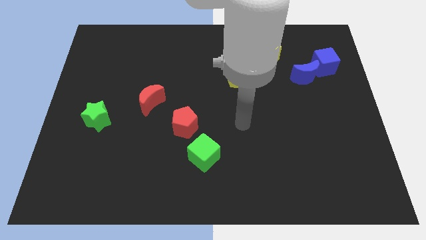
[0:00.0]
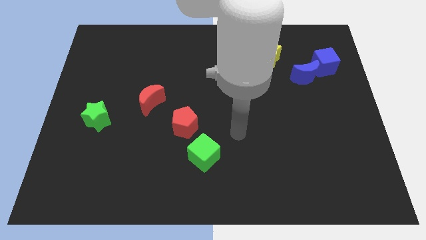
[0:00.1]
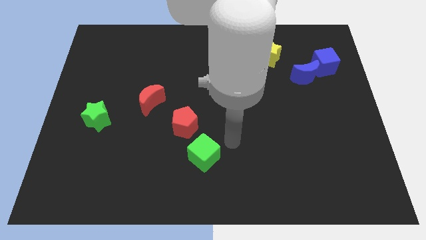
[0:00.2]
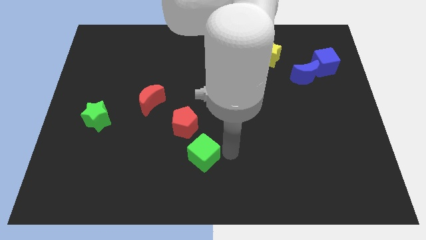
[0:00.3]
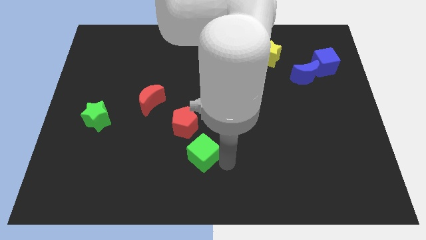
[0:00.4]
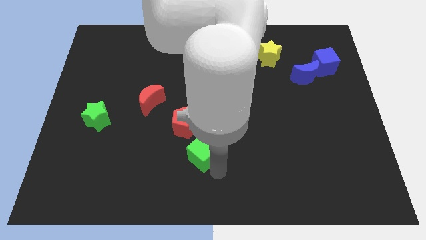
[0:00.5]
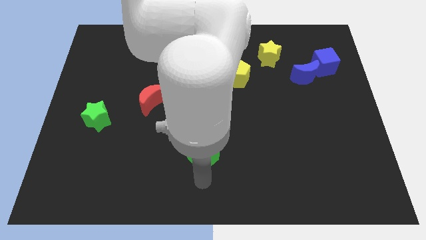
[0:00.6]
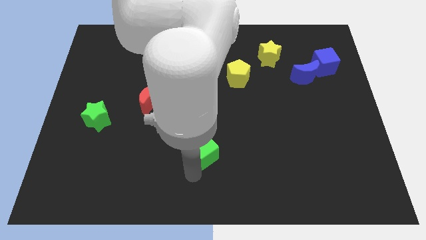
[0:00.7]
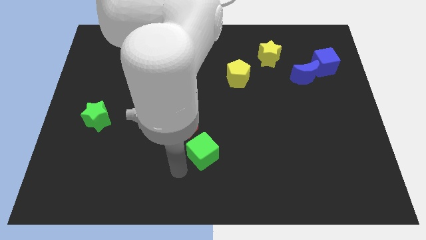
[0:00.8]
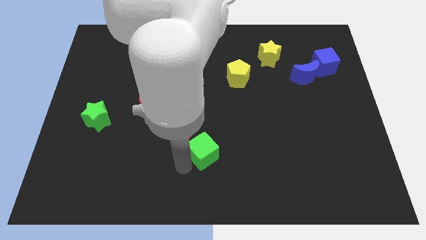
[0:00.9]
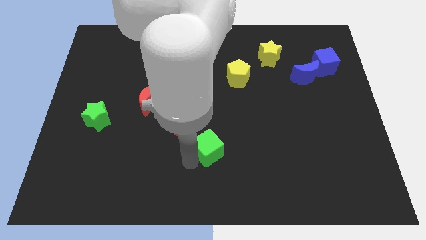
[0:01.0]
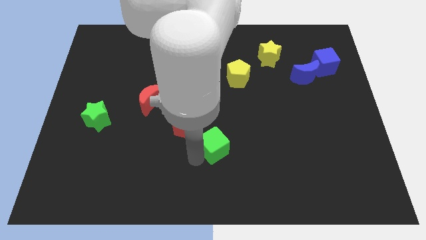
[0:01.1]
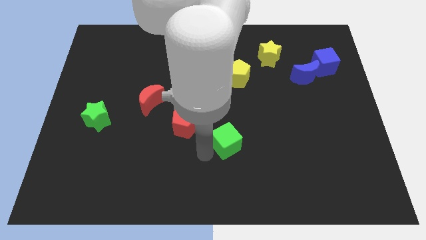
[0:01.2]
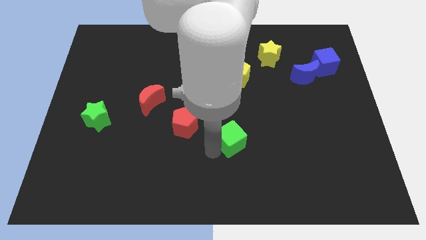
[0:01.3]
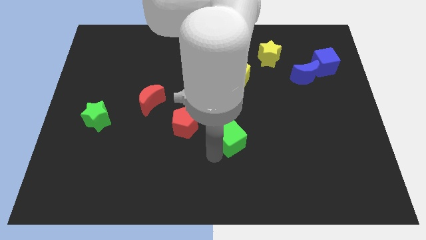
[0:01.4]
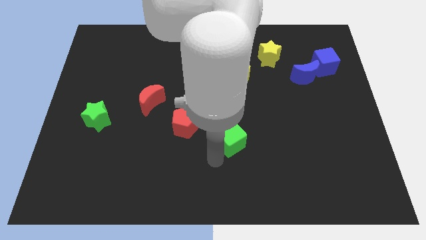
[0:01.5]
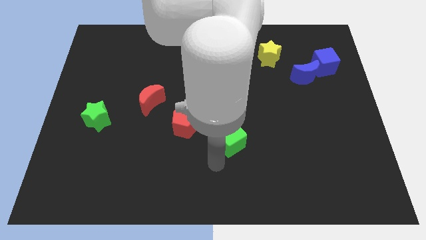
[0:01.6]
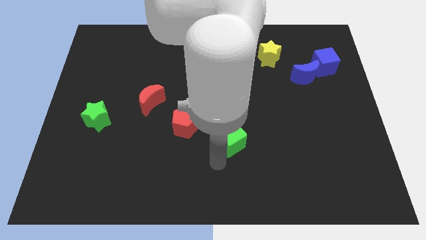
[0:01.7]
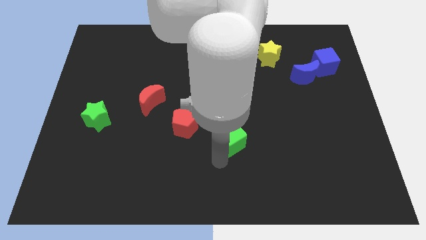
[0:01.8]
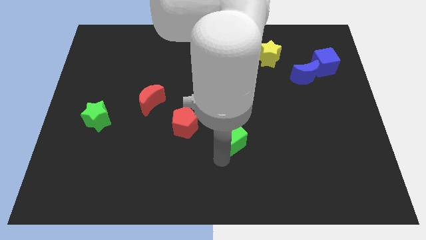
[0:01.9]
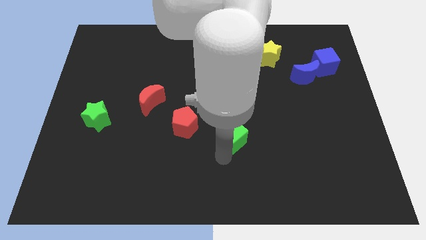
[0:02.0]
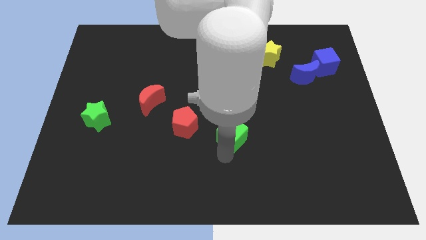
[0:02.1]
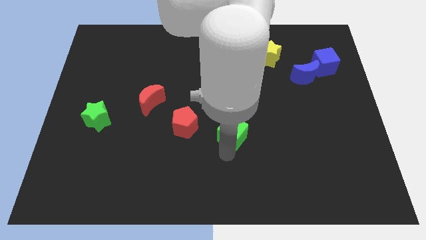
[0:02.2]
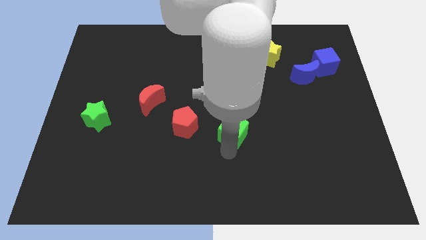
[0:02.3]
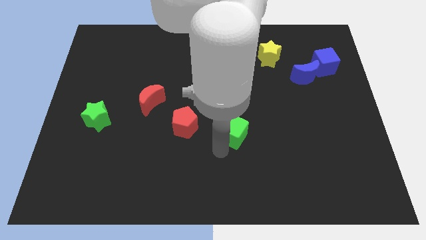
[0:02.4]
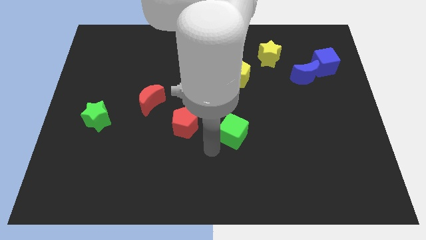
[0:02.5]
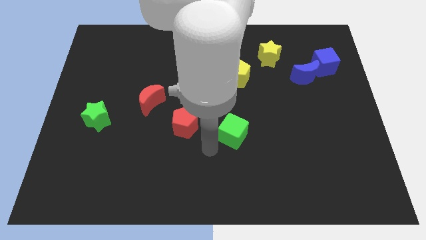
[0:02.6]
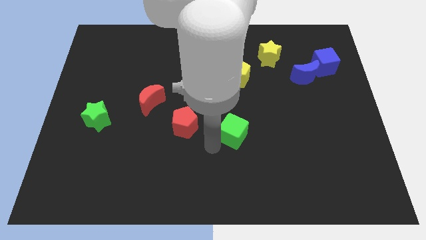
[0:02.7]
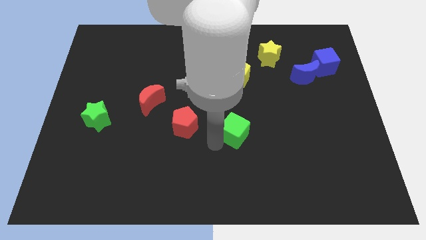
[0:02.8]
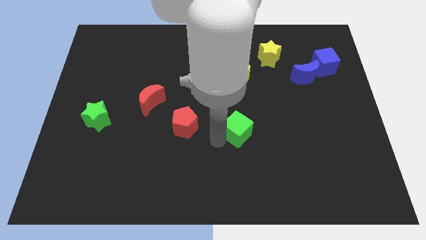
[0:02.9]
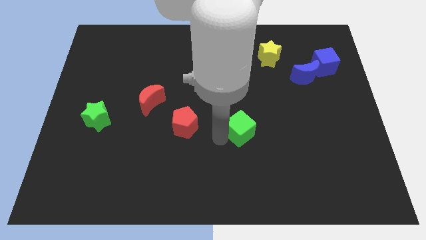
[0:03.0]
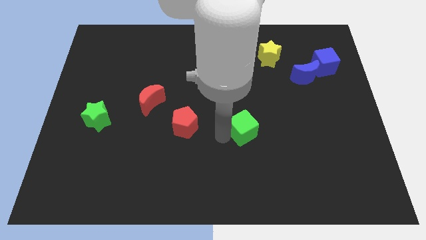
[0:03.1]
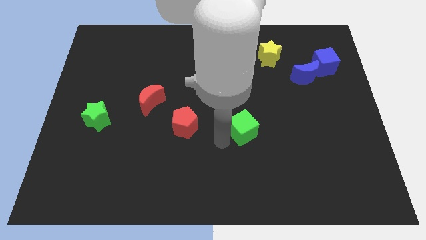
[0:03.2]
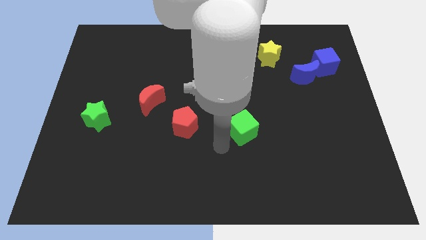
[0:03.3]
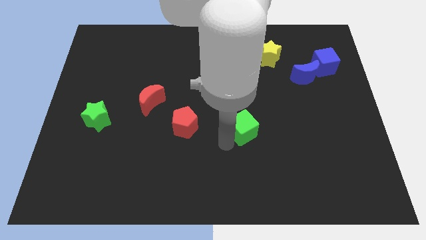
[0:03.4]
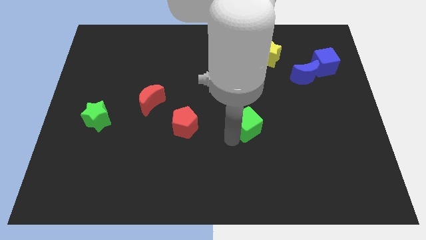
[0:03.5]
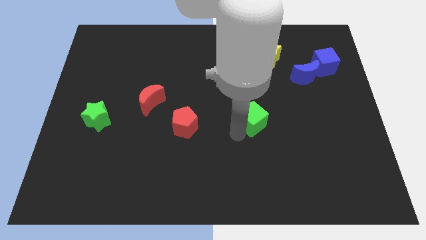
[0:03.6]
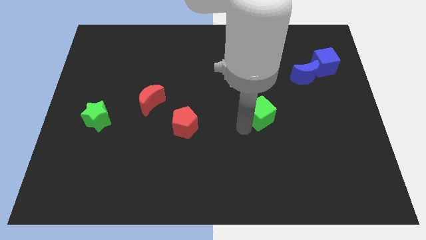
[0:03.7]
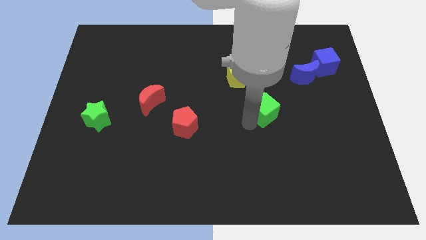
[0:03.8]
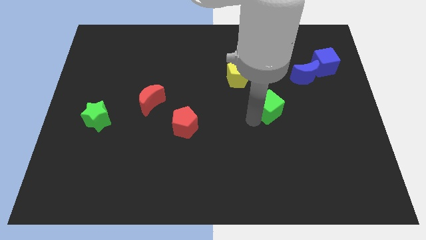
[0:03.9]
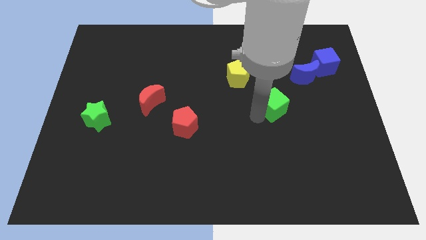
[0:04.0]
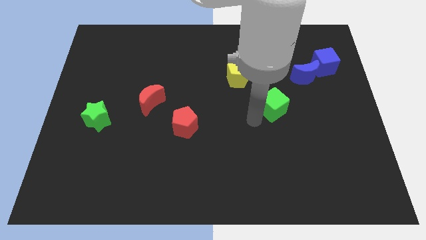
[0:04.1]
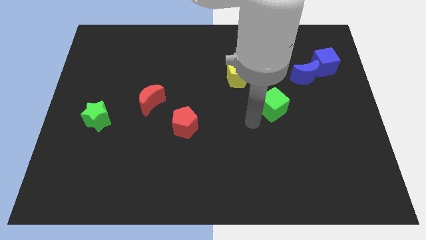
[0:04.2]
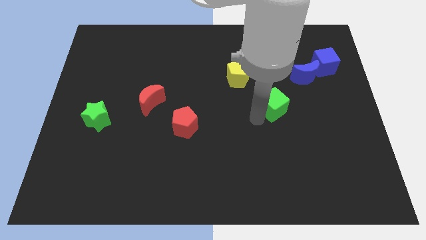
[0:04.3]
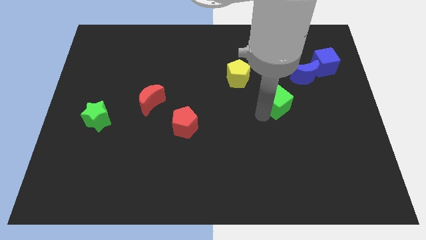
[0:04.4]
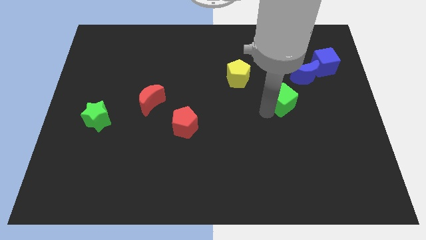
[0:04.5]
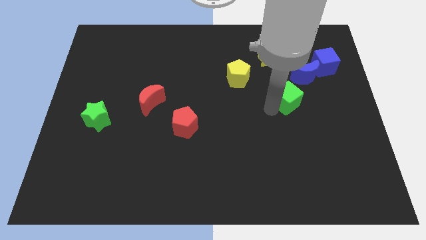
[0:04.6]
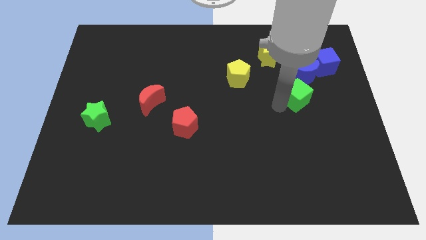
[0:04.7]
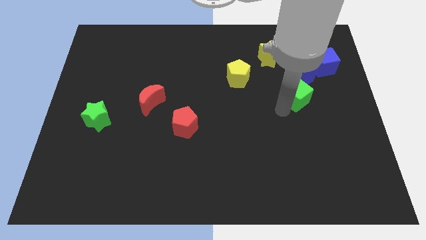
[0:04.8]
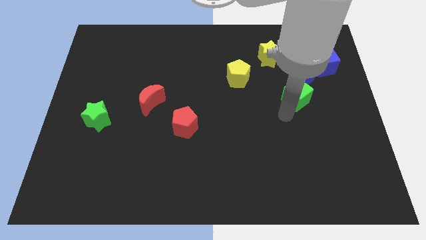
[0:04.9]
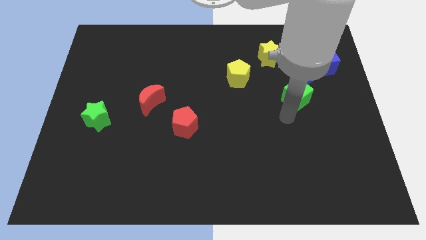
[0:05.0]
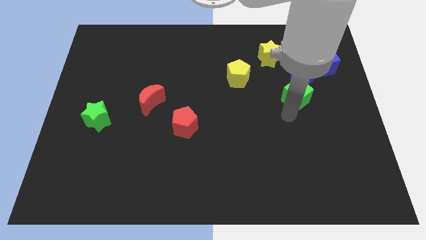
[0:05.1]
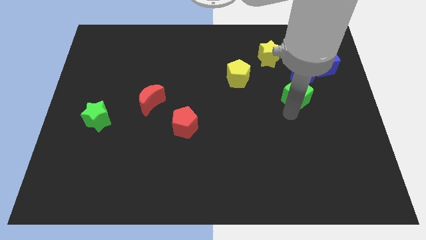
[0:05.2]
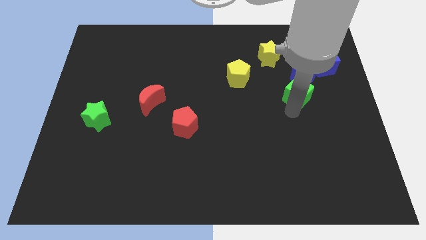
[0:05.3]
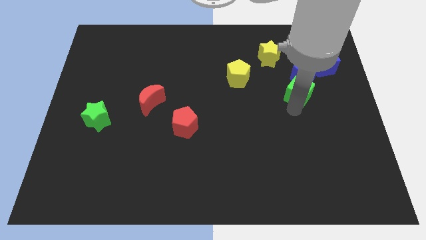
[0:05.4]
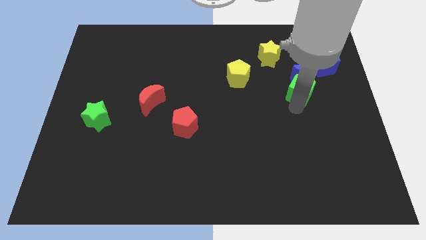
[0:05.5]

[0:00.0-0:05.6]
move the green cube close to the blue moon

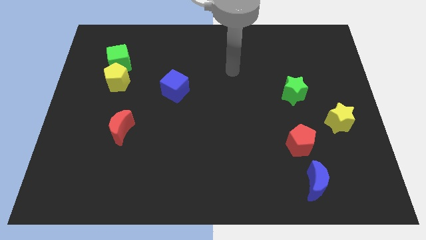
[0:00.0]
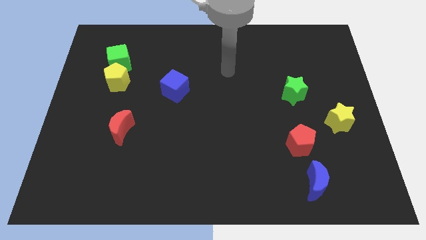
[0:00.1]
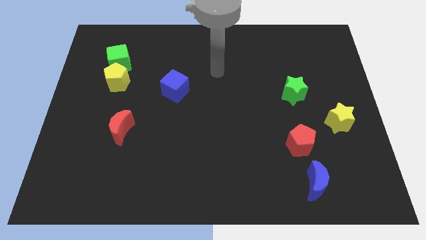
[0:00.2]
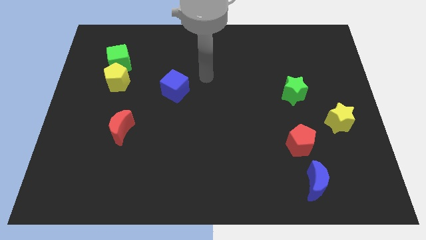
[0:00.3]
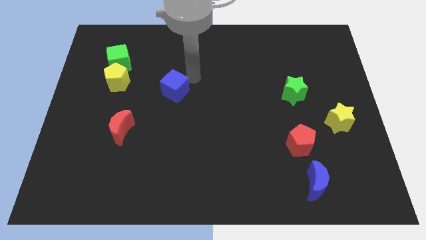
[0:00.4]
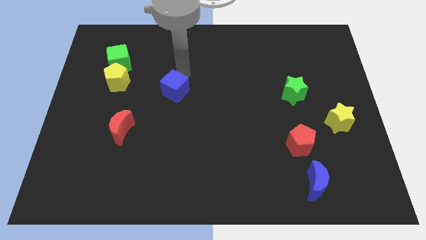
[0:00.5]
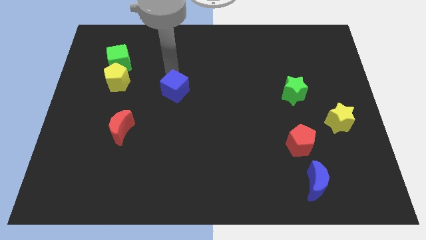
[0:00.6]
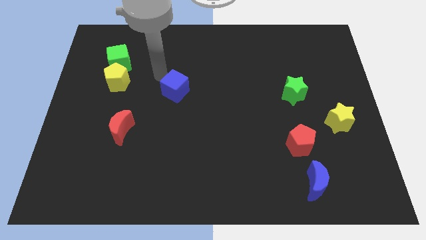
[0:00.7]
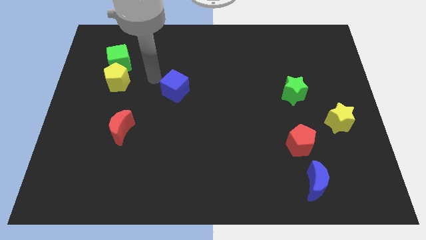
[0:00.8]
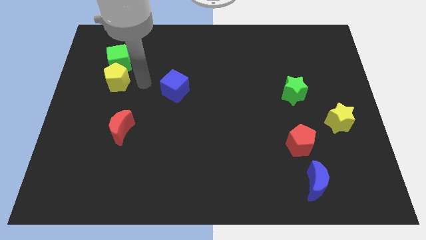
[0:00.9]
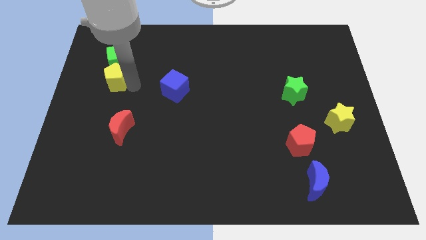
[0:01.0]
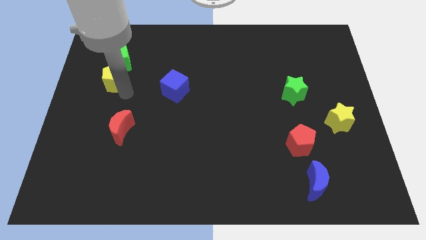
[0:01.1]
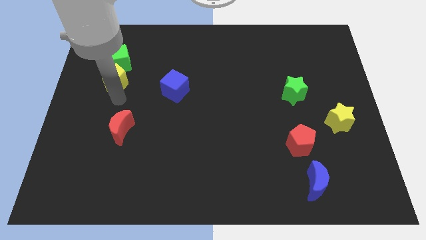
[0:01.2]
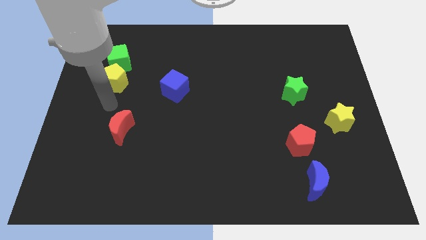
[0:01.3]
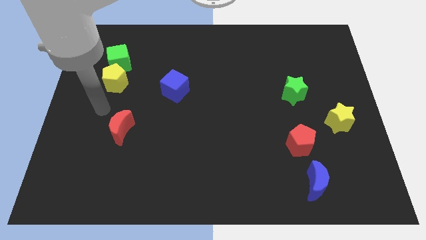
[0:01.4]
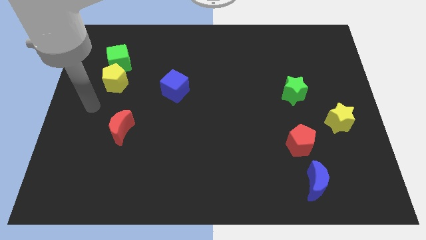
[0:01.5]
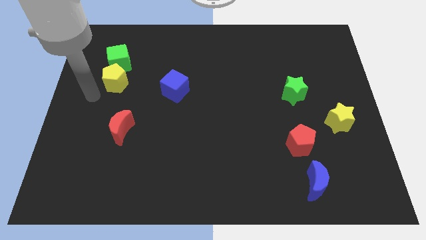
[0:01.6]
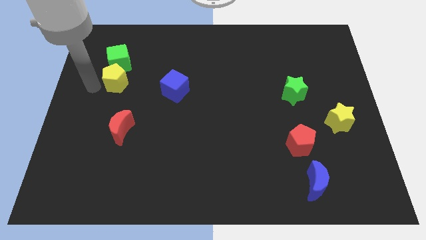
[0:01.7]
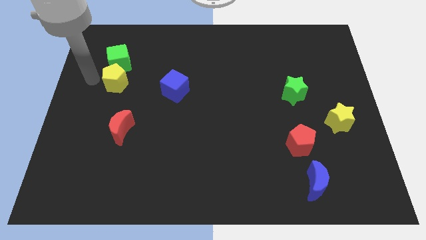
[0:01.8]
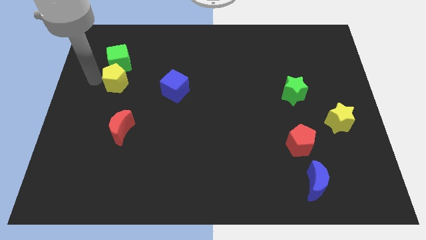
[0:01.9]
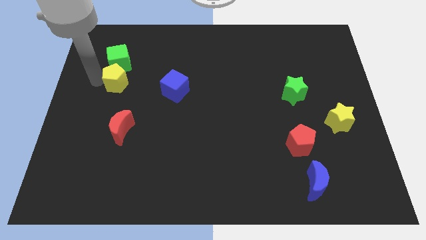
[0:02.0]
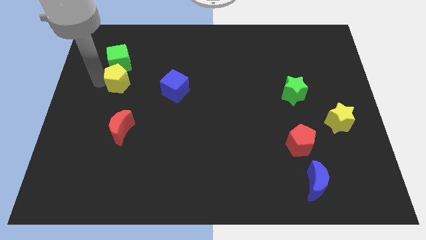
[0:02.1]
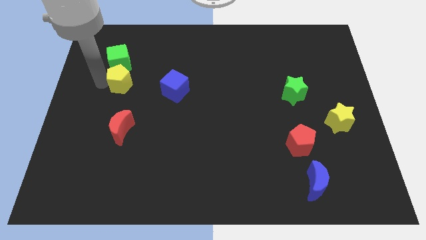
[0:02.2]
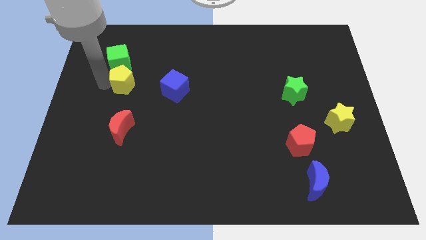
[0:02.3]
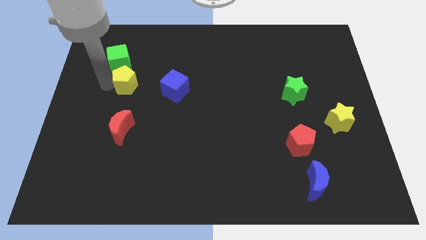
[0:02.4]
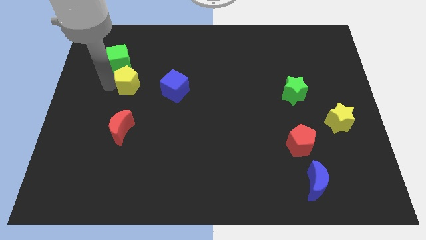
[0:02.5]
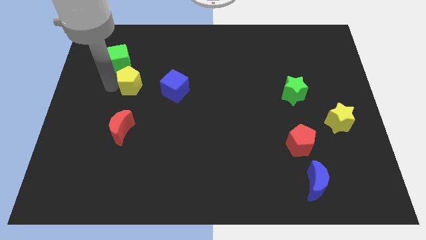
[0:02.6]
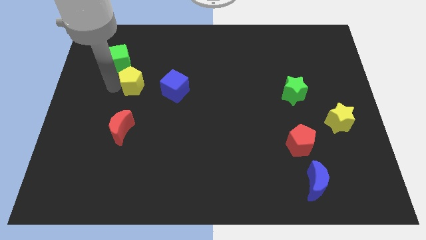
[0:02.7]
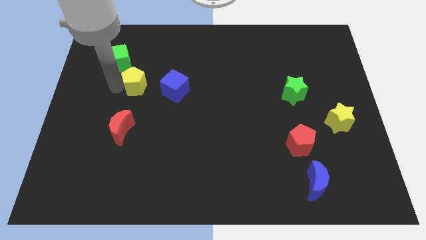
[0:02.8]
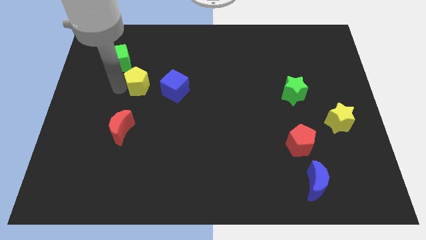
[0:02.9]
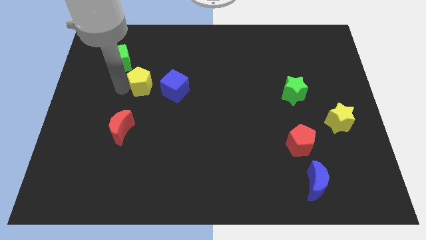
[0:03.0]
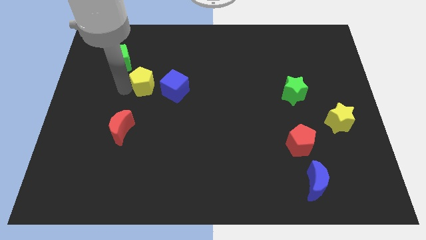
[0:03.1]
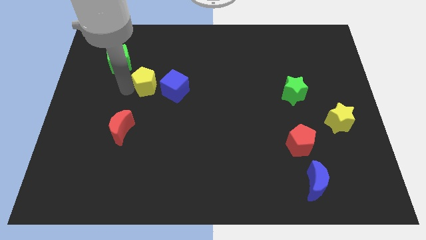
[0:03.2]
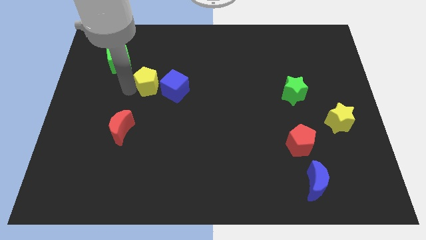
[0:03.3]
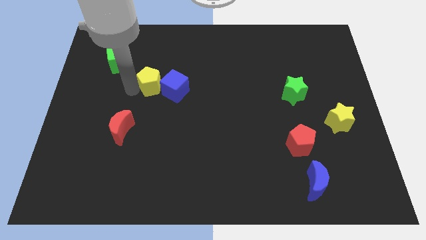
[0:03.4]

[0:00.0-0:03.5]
put the yellow pentagon next to the blue cube
